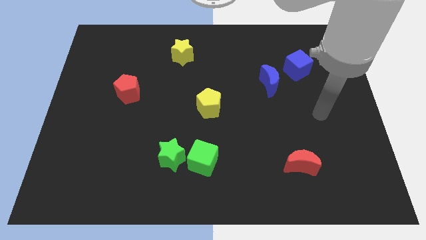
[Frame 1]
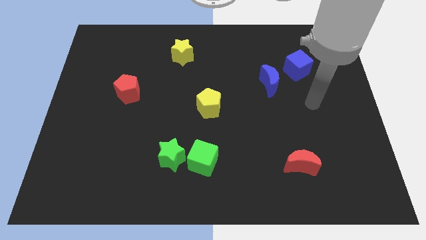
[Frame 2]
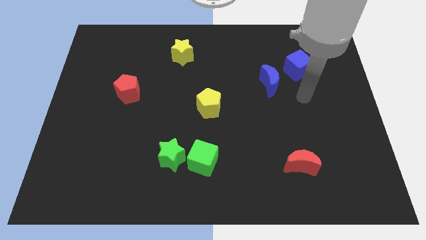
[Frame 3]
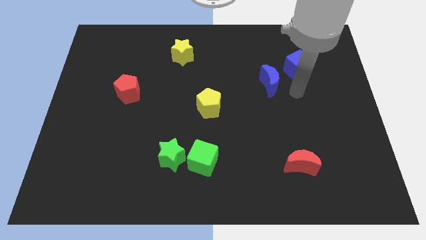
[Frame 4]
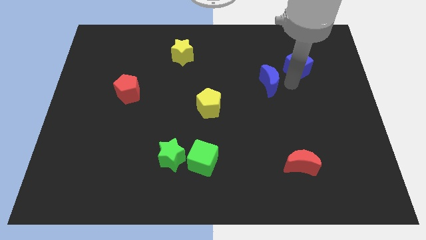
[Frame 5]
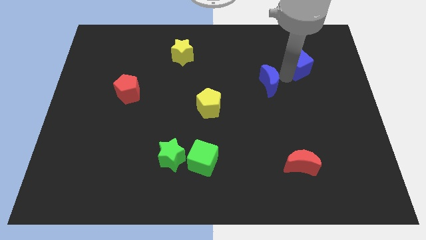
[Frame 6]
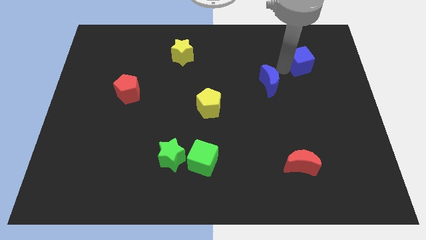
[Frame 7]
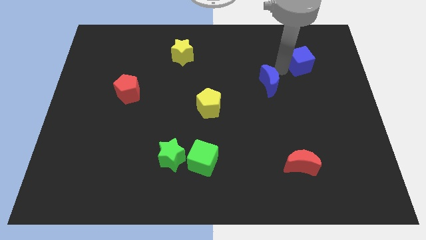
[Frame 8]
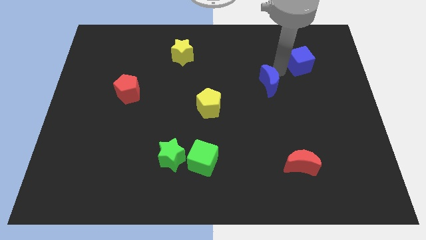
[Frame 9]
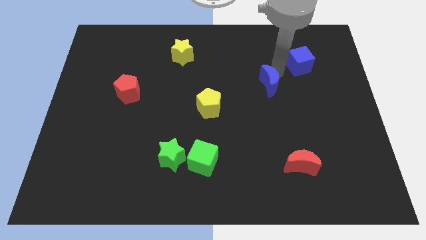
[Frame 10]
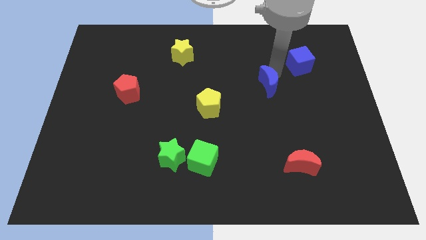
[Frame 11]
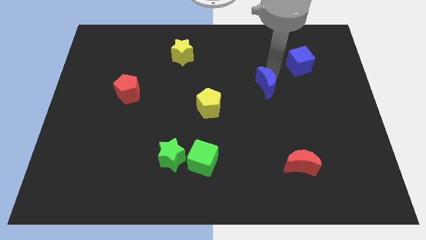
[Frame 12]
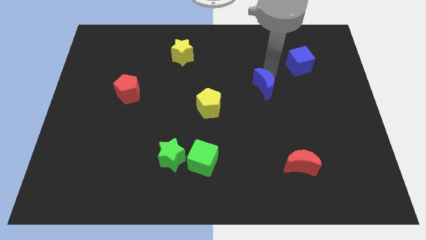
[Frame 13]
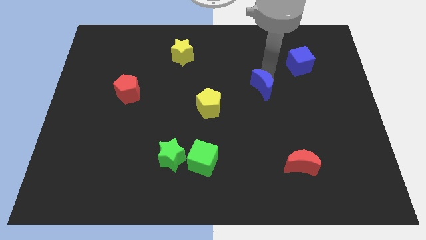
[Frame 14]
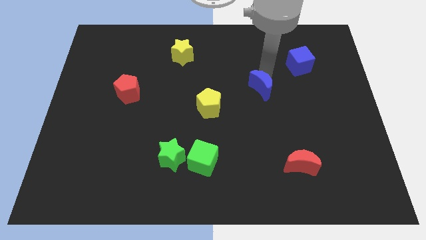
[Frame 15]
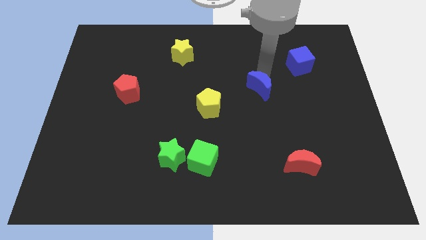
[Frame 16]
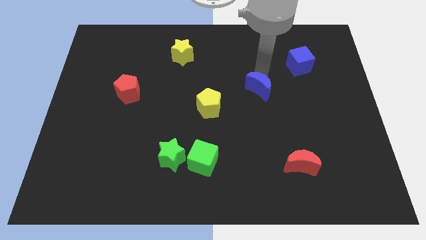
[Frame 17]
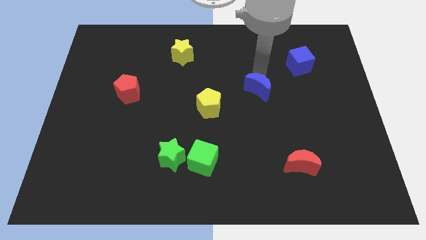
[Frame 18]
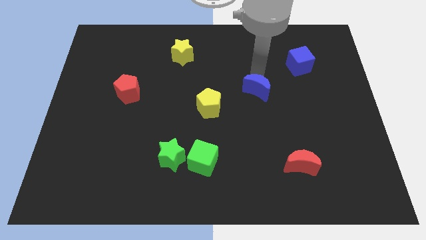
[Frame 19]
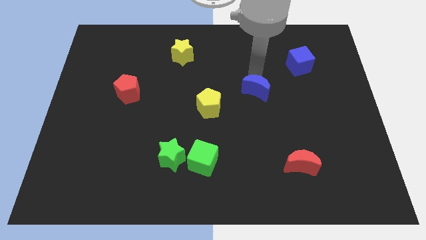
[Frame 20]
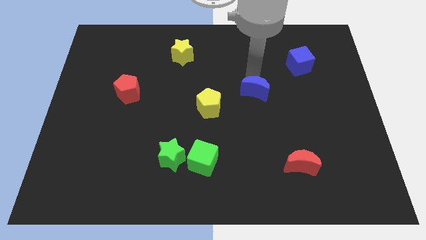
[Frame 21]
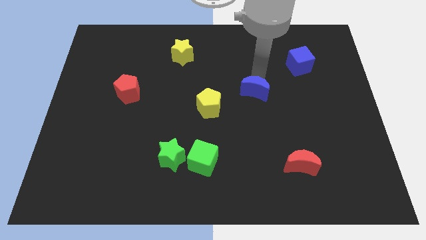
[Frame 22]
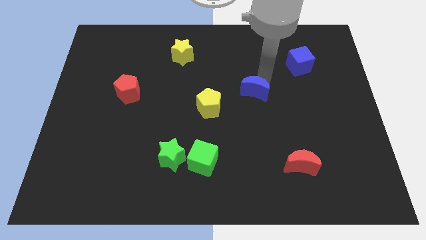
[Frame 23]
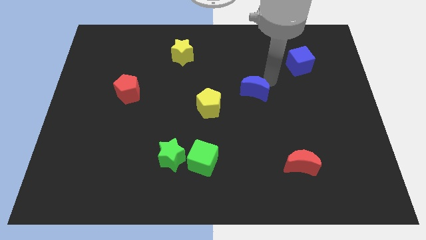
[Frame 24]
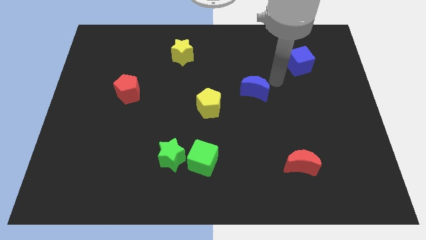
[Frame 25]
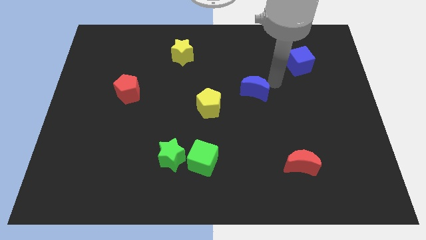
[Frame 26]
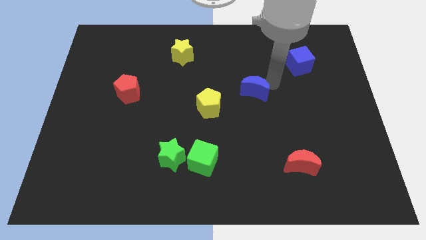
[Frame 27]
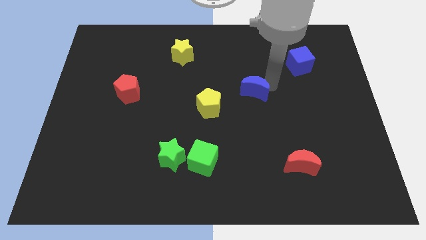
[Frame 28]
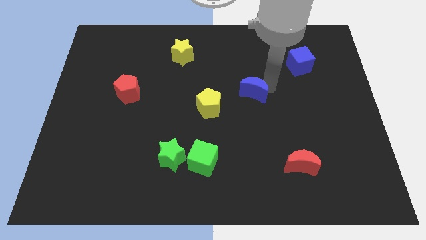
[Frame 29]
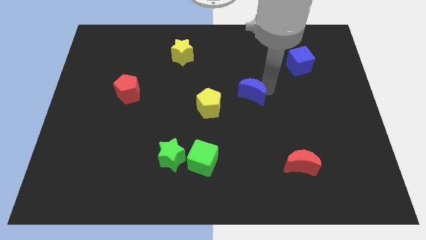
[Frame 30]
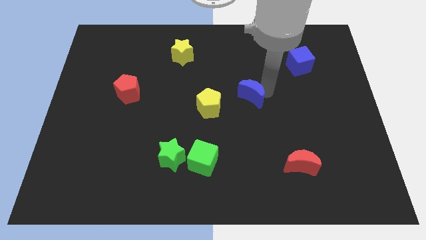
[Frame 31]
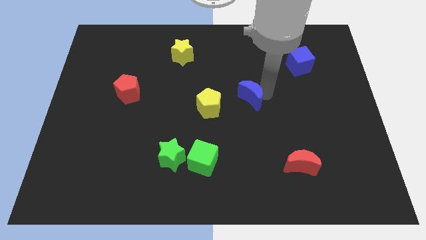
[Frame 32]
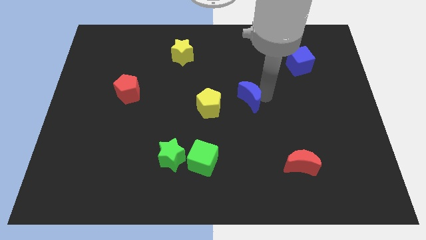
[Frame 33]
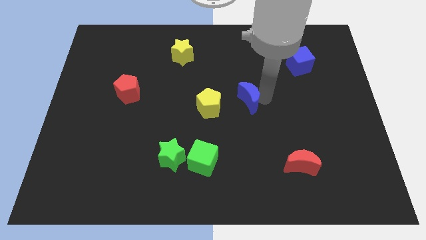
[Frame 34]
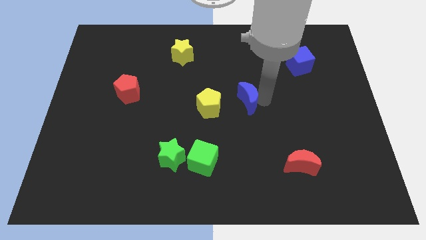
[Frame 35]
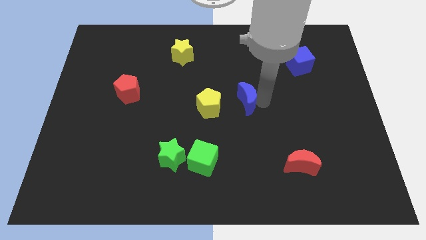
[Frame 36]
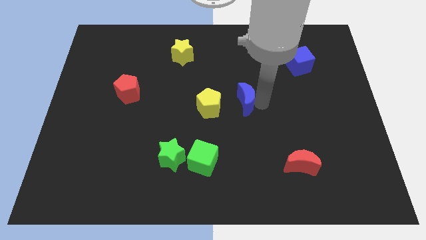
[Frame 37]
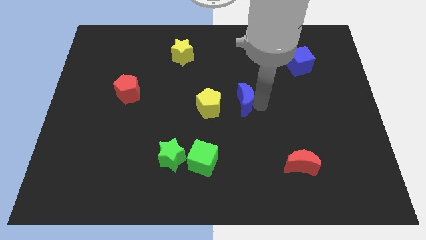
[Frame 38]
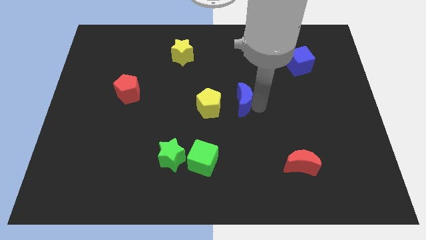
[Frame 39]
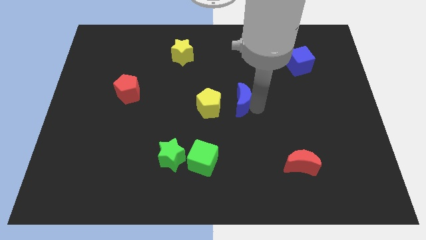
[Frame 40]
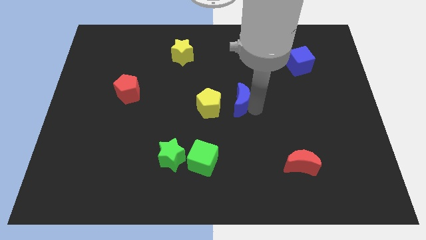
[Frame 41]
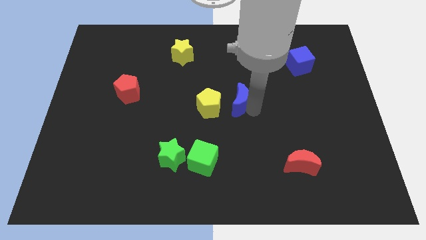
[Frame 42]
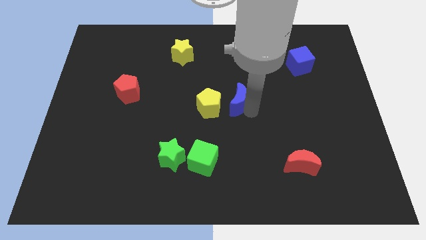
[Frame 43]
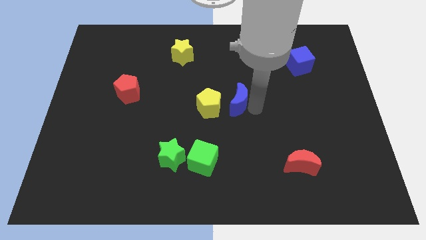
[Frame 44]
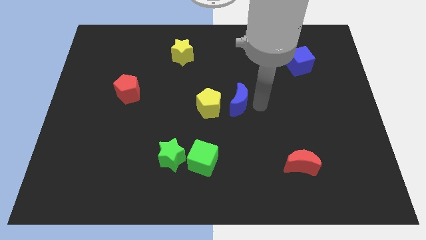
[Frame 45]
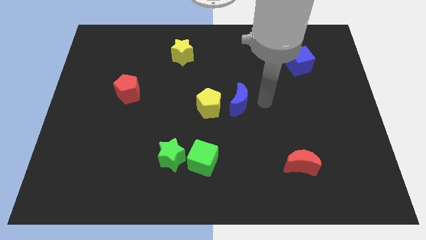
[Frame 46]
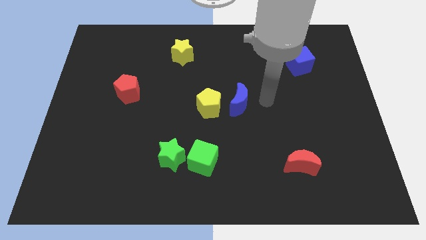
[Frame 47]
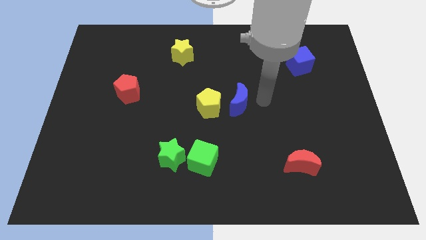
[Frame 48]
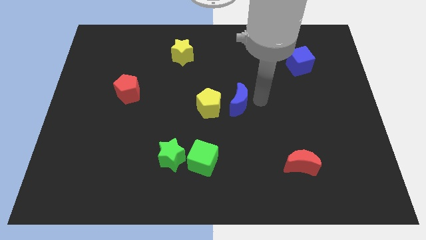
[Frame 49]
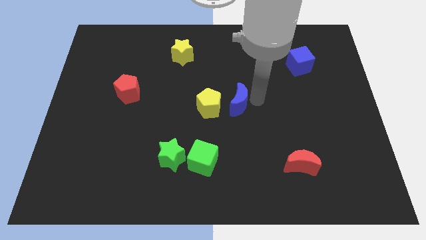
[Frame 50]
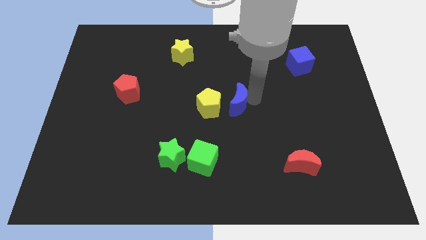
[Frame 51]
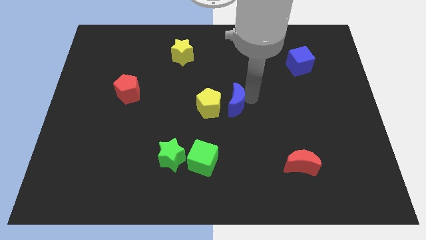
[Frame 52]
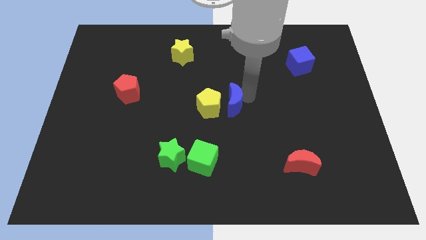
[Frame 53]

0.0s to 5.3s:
slide the blue moon towards the yellow pentagon

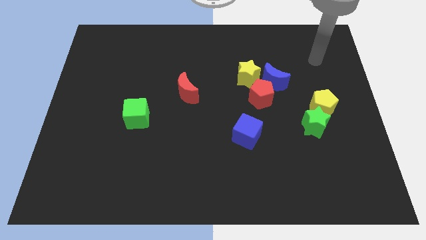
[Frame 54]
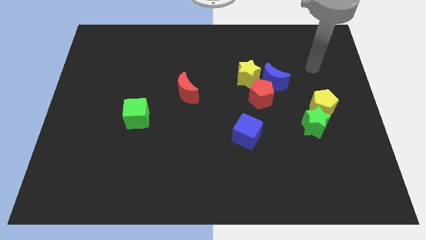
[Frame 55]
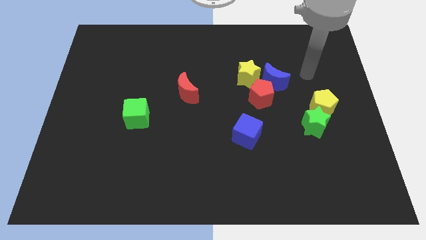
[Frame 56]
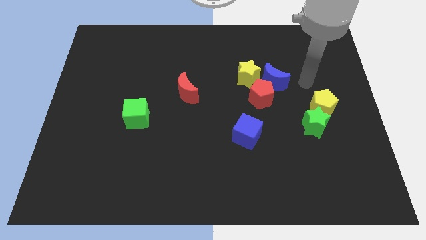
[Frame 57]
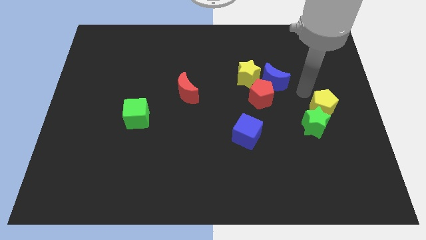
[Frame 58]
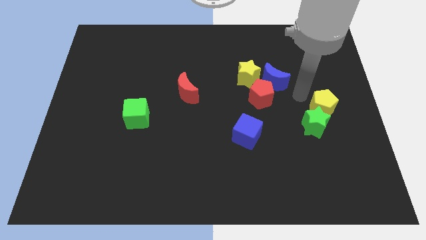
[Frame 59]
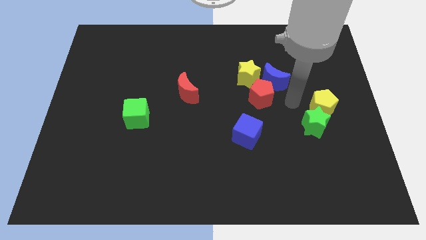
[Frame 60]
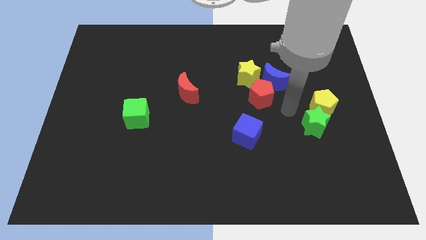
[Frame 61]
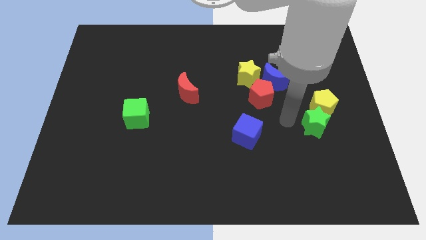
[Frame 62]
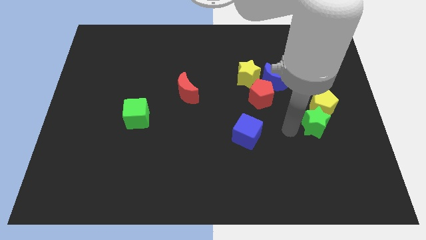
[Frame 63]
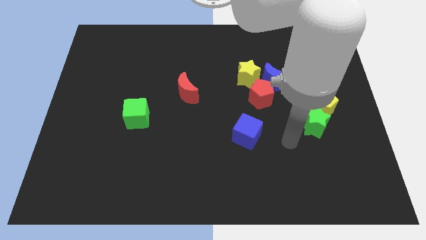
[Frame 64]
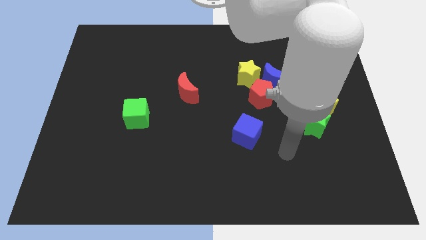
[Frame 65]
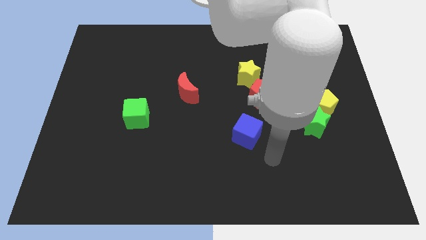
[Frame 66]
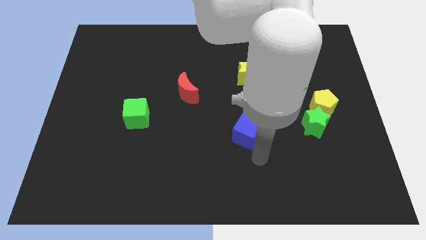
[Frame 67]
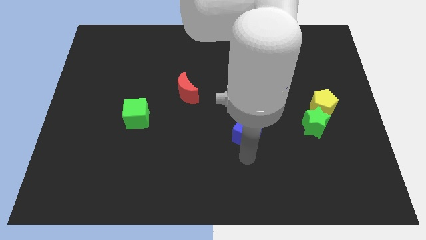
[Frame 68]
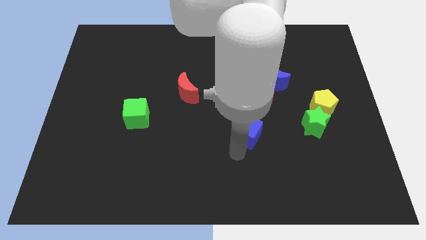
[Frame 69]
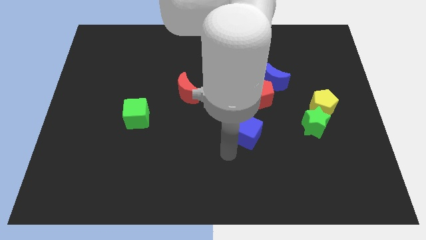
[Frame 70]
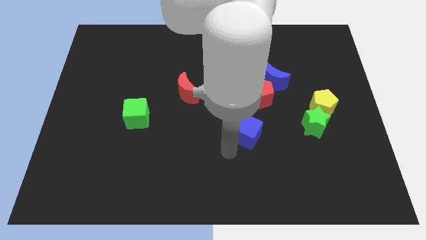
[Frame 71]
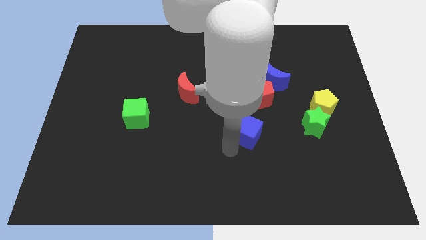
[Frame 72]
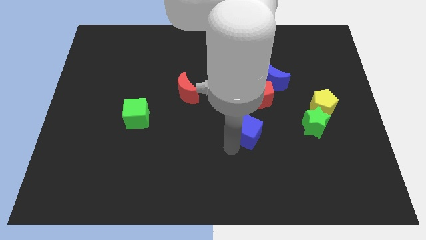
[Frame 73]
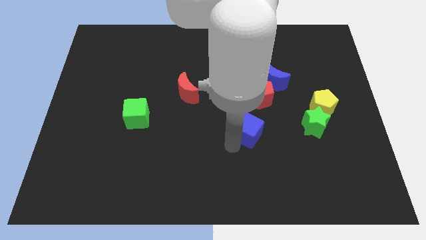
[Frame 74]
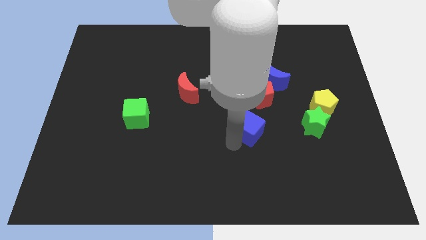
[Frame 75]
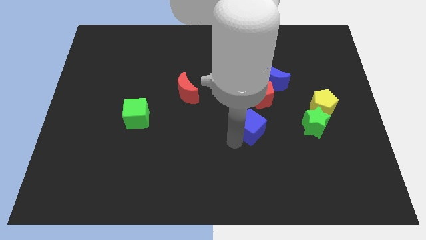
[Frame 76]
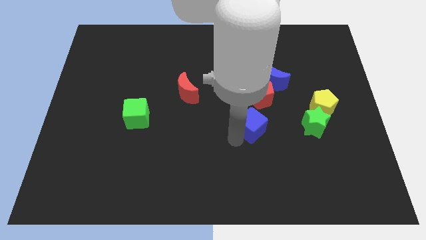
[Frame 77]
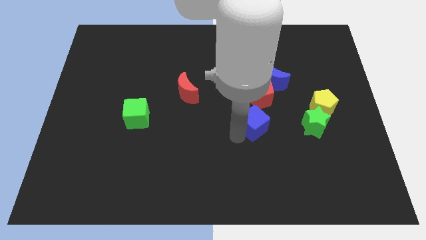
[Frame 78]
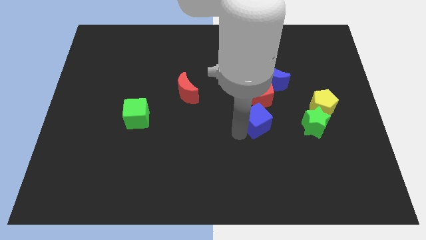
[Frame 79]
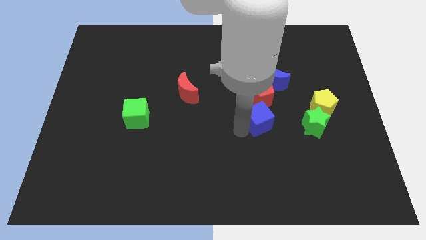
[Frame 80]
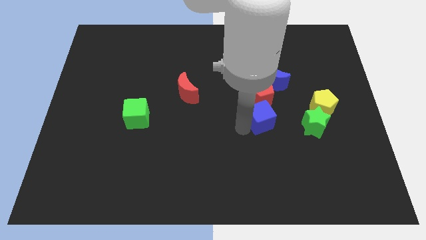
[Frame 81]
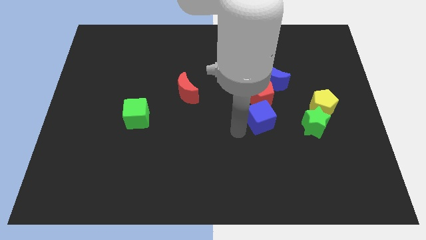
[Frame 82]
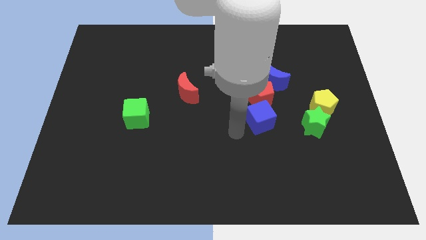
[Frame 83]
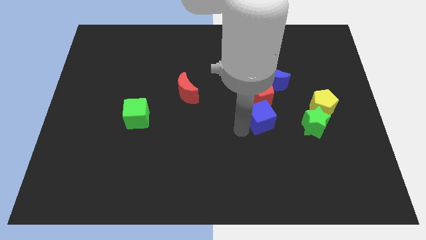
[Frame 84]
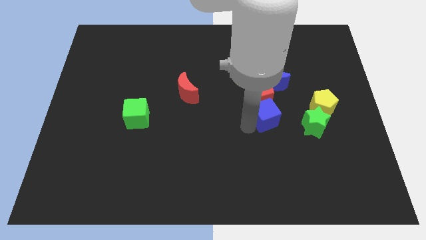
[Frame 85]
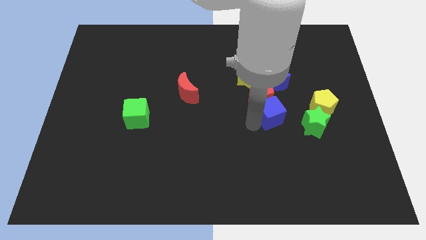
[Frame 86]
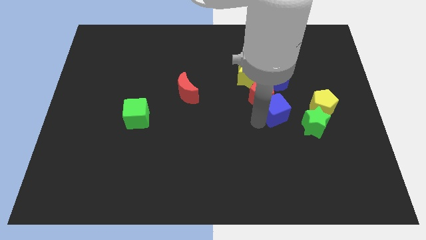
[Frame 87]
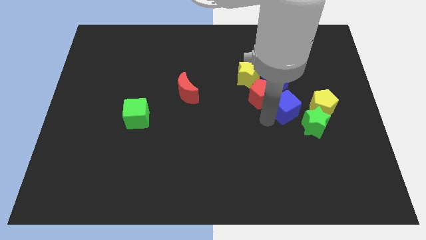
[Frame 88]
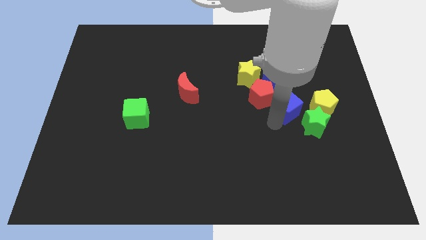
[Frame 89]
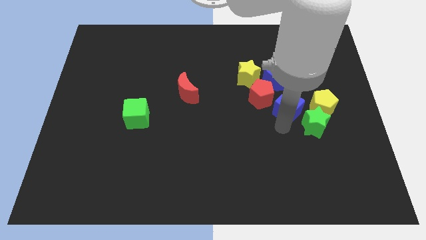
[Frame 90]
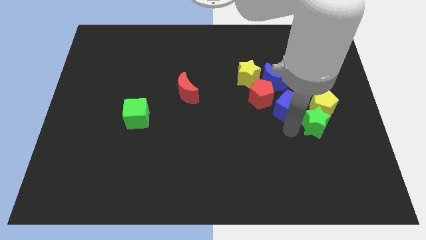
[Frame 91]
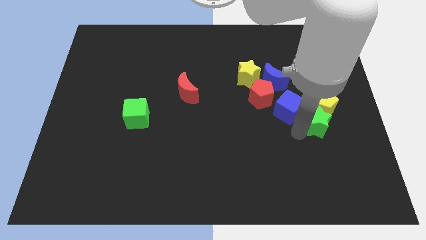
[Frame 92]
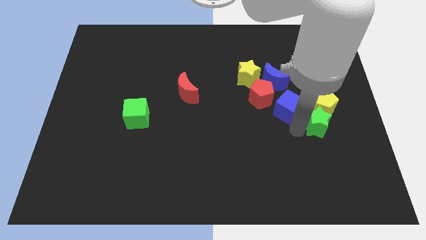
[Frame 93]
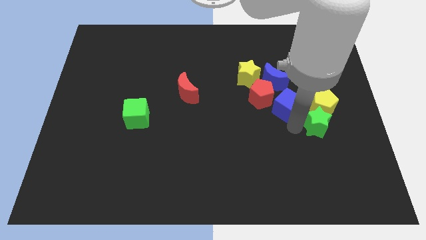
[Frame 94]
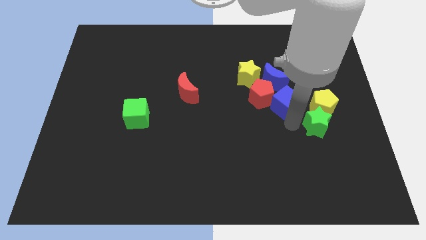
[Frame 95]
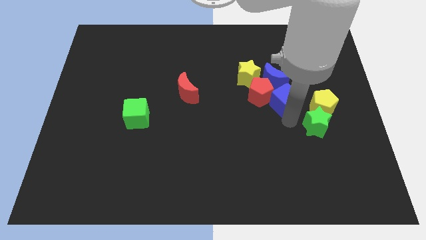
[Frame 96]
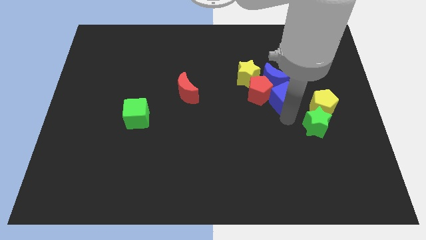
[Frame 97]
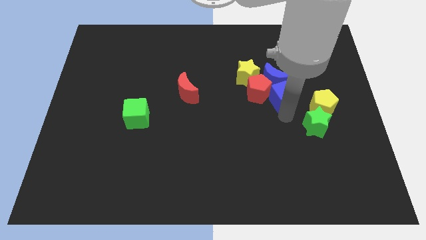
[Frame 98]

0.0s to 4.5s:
put the blue cube close to the blue moon
